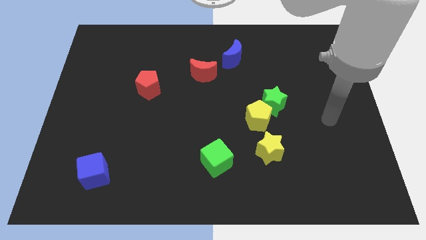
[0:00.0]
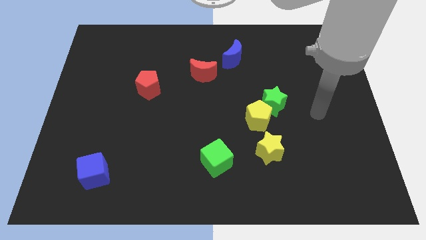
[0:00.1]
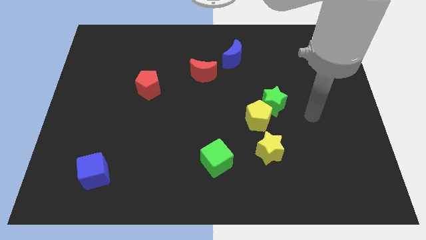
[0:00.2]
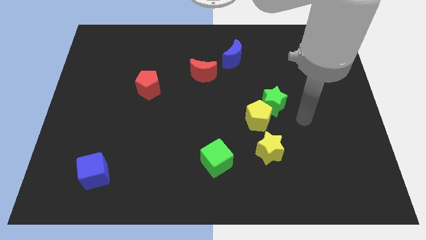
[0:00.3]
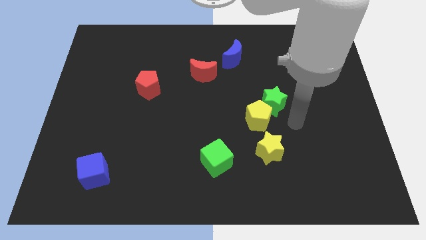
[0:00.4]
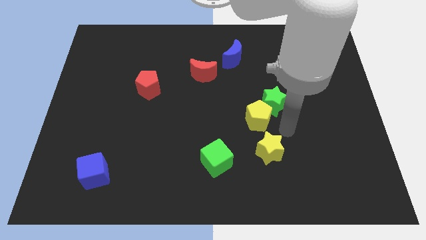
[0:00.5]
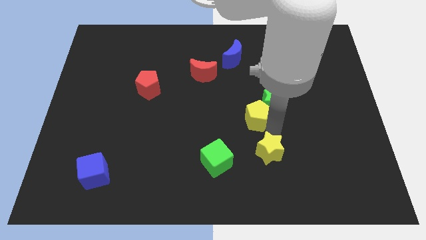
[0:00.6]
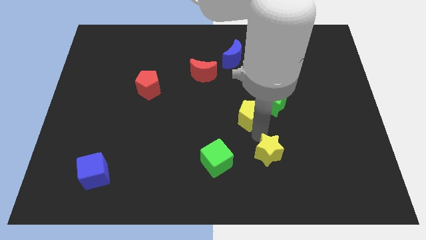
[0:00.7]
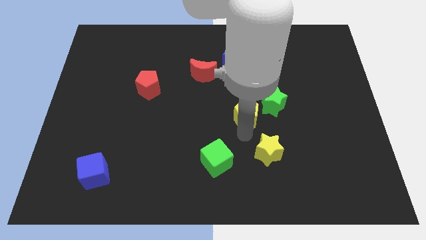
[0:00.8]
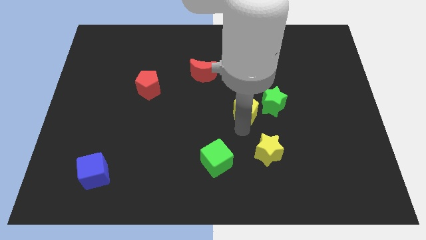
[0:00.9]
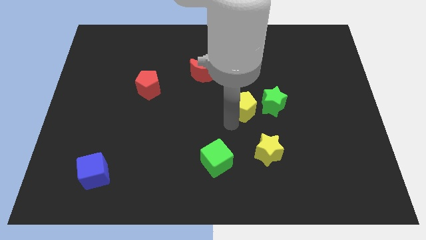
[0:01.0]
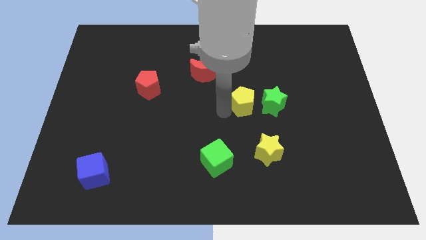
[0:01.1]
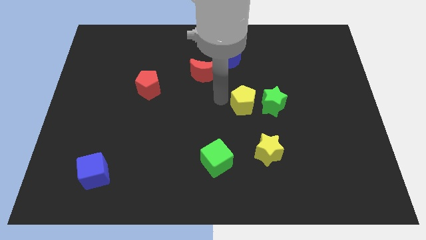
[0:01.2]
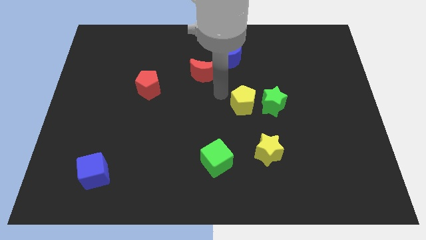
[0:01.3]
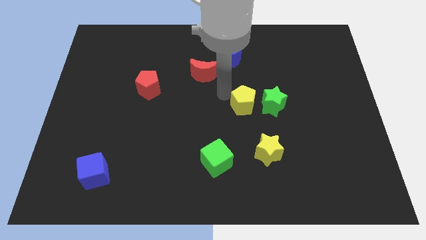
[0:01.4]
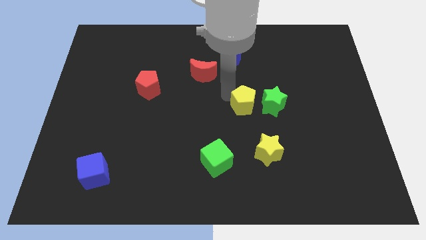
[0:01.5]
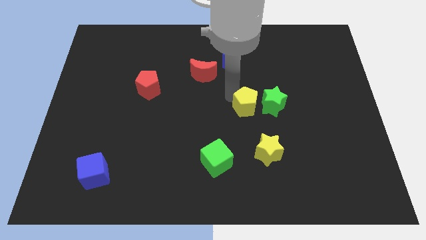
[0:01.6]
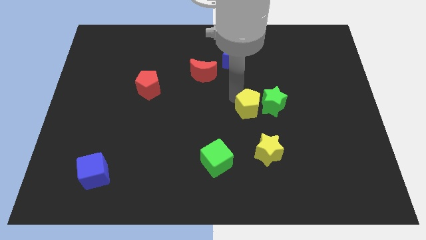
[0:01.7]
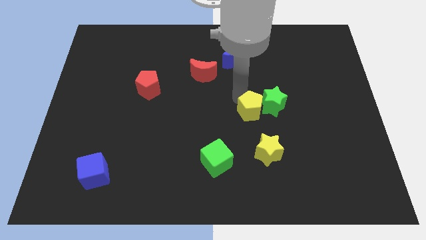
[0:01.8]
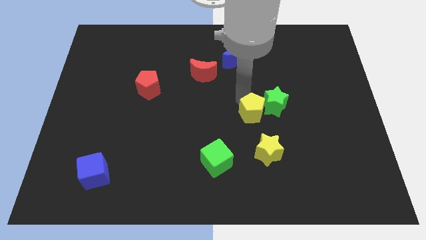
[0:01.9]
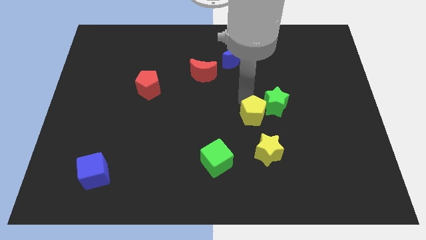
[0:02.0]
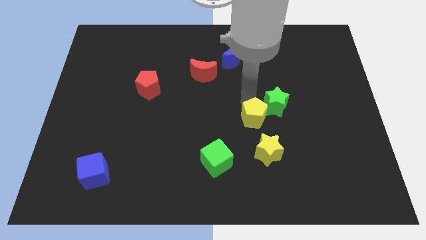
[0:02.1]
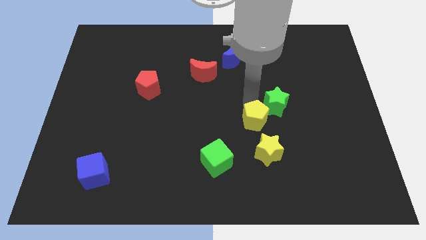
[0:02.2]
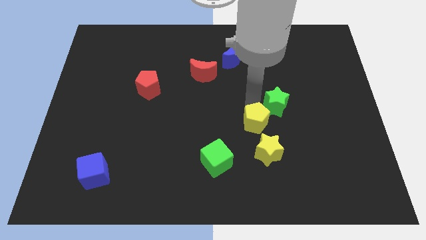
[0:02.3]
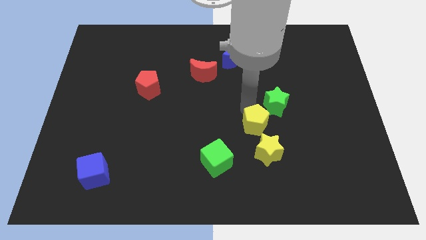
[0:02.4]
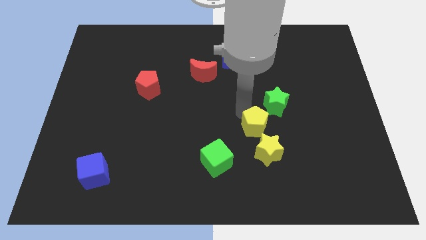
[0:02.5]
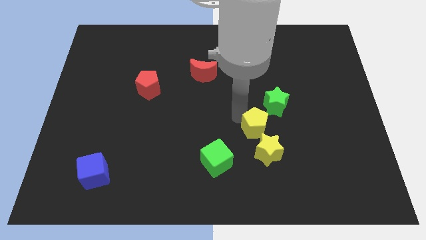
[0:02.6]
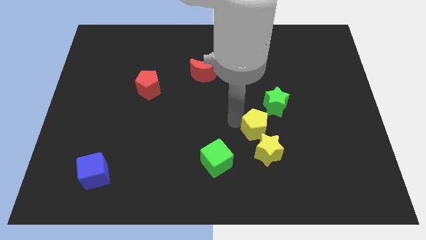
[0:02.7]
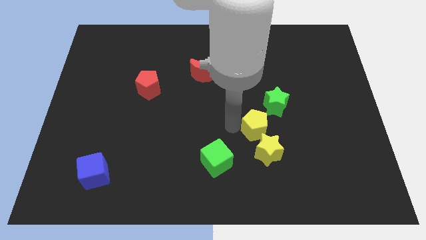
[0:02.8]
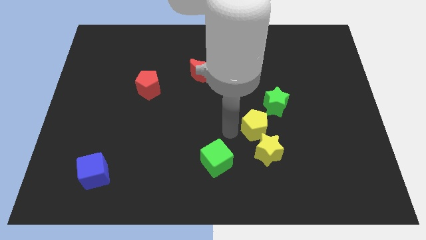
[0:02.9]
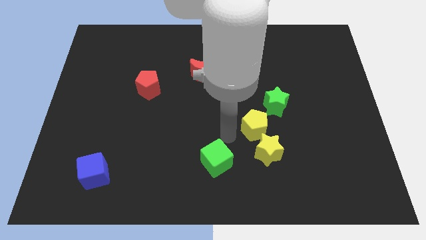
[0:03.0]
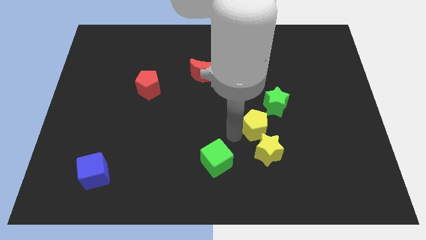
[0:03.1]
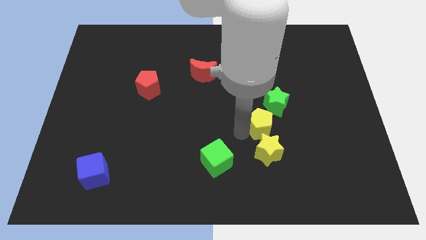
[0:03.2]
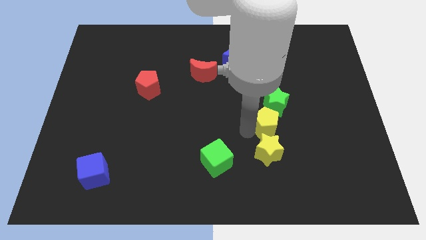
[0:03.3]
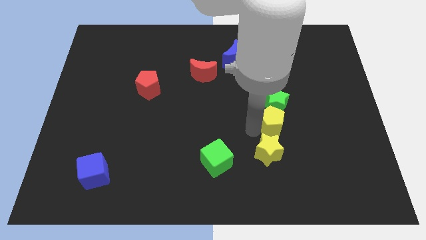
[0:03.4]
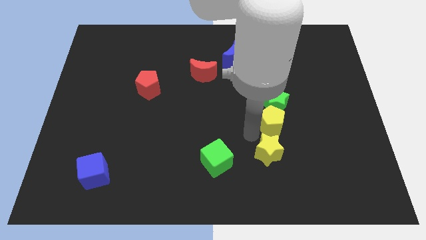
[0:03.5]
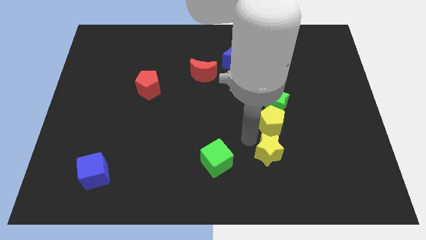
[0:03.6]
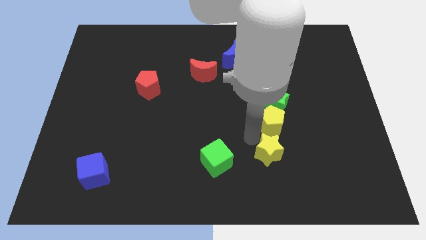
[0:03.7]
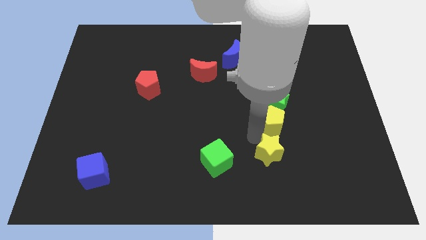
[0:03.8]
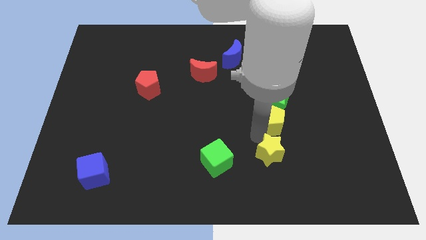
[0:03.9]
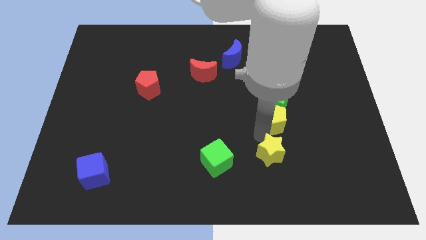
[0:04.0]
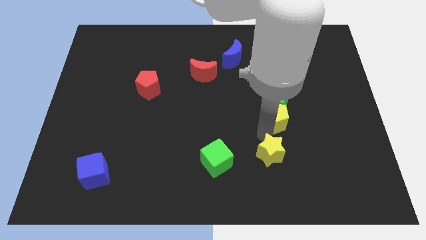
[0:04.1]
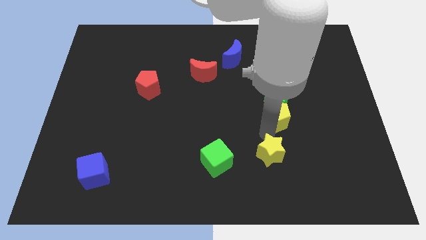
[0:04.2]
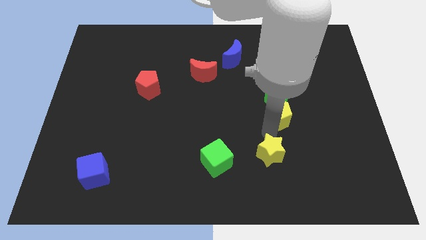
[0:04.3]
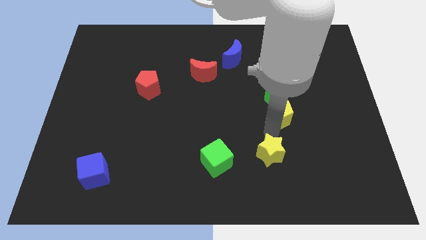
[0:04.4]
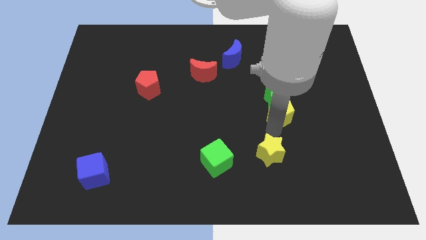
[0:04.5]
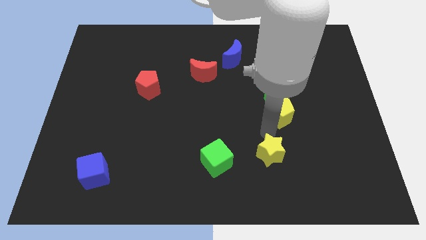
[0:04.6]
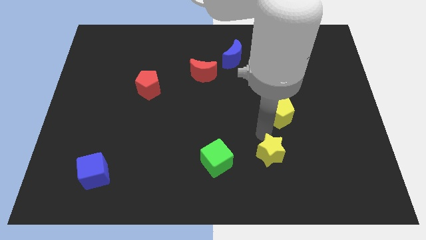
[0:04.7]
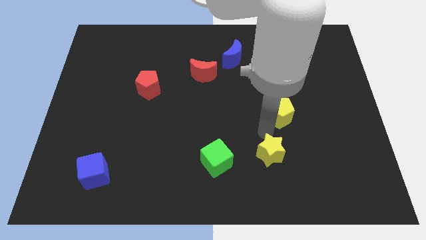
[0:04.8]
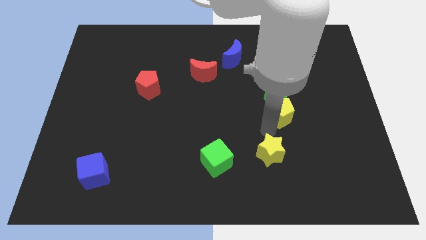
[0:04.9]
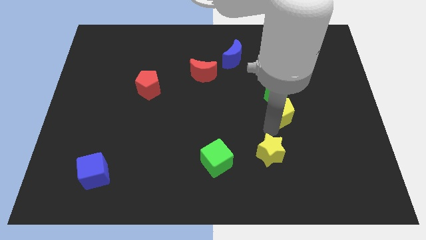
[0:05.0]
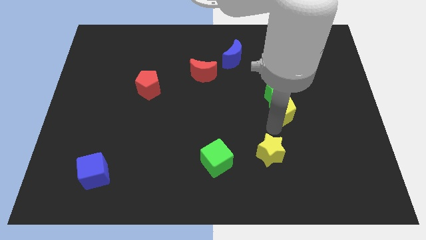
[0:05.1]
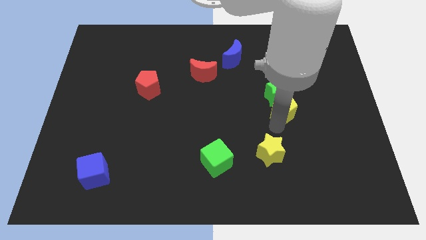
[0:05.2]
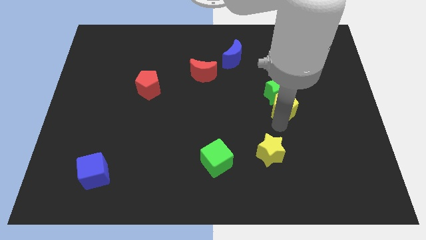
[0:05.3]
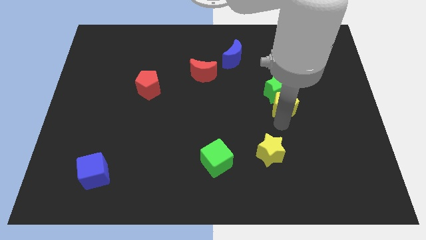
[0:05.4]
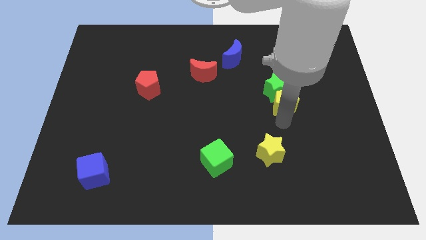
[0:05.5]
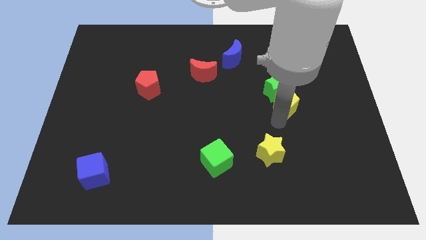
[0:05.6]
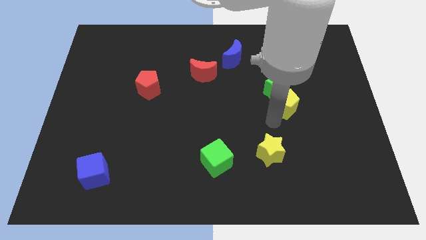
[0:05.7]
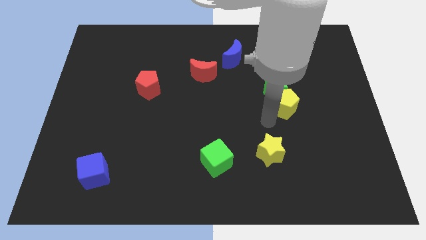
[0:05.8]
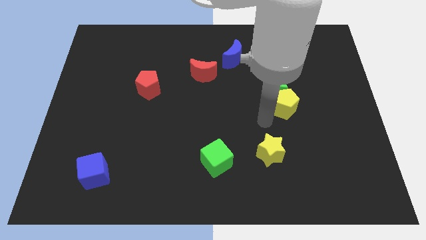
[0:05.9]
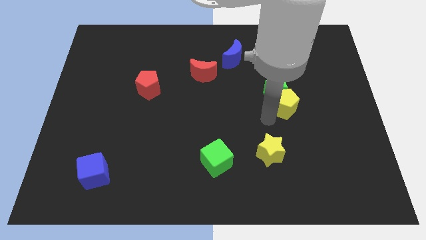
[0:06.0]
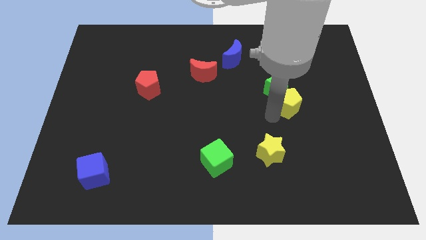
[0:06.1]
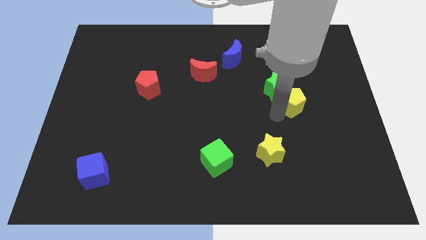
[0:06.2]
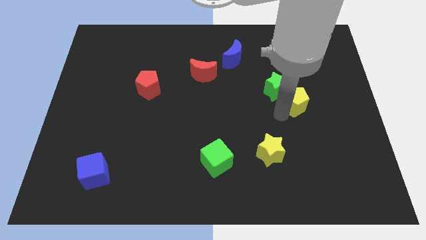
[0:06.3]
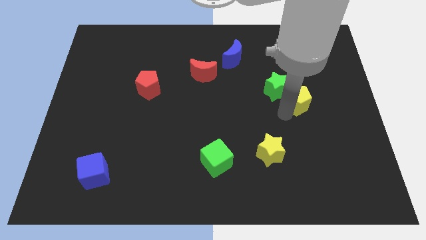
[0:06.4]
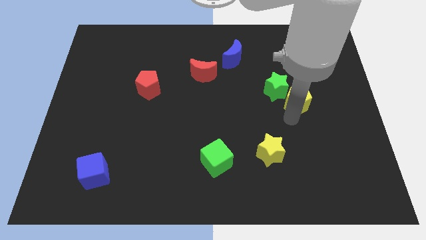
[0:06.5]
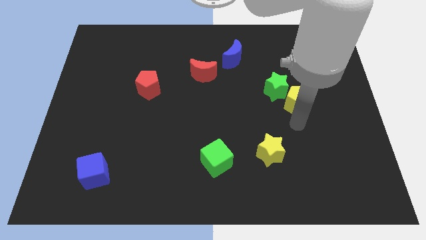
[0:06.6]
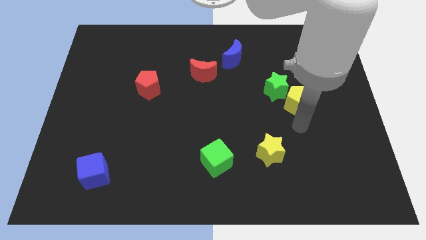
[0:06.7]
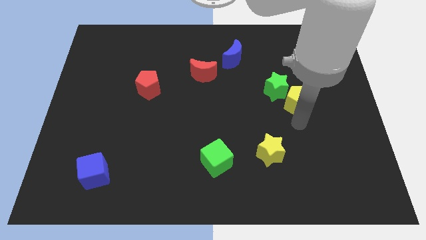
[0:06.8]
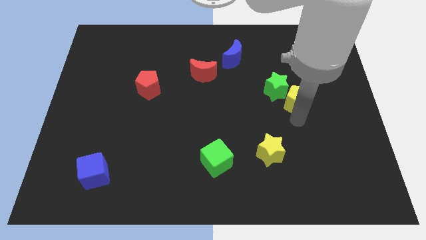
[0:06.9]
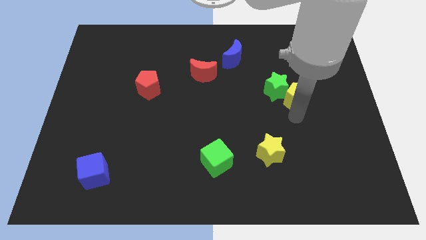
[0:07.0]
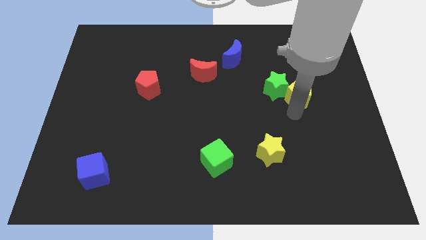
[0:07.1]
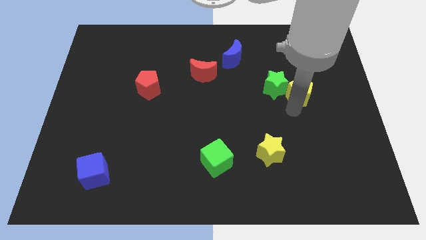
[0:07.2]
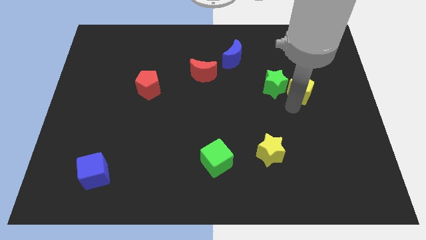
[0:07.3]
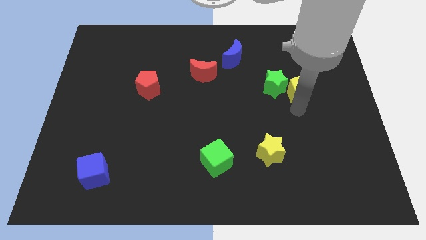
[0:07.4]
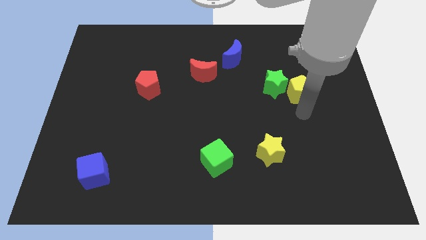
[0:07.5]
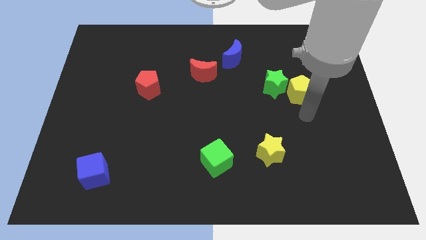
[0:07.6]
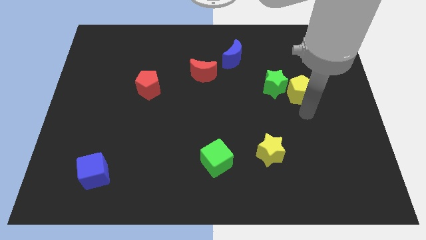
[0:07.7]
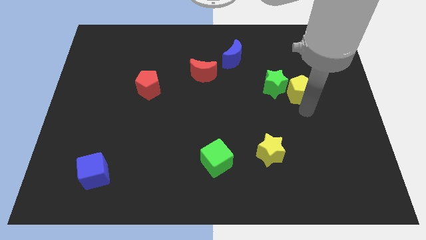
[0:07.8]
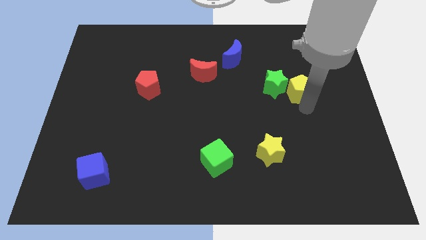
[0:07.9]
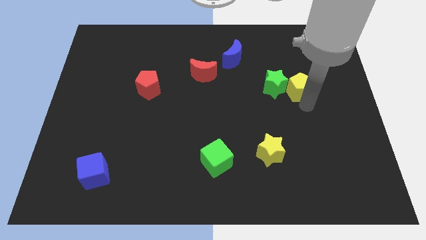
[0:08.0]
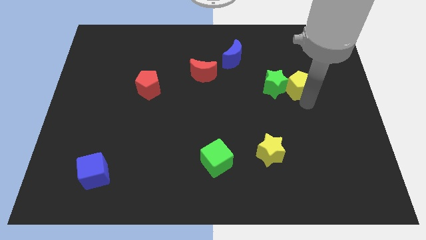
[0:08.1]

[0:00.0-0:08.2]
push the yellow pentagon to the top right of the green star
